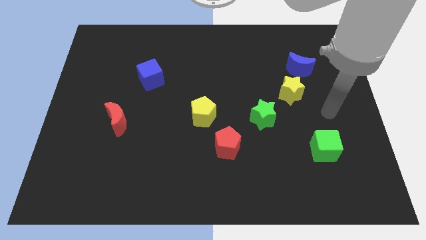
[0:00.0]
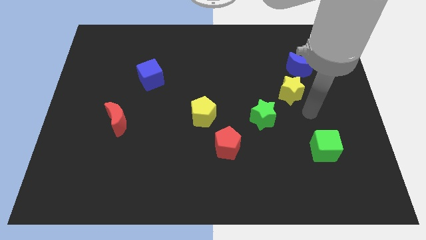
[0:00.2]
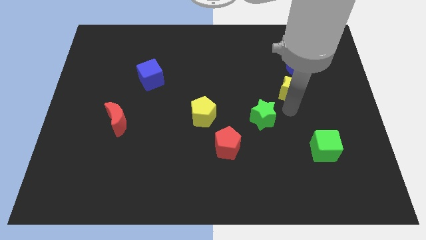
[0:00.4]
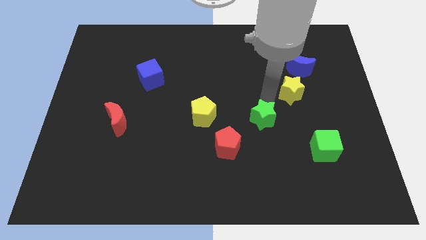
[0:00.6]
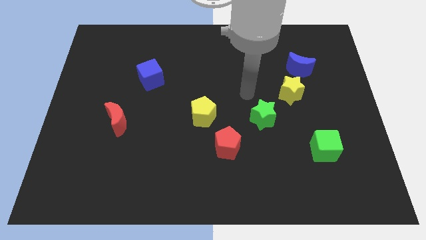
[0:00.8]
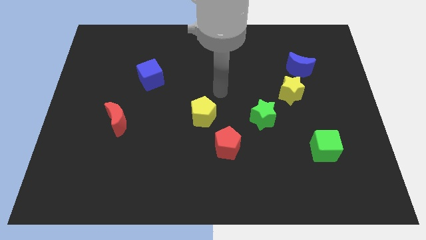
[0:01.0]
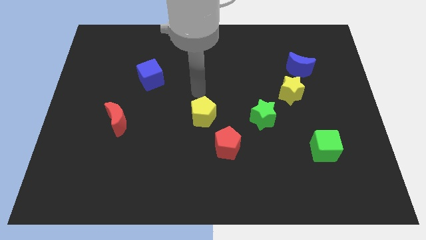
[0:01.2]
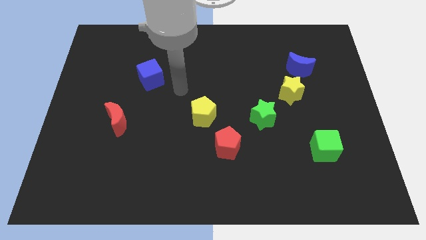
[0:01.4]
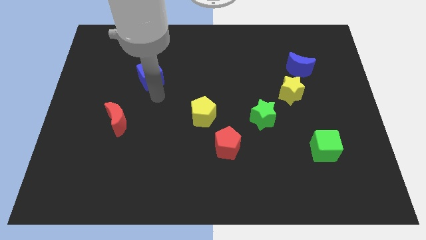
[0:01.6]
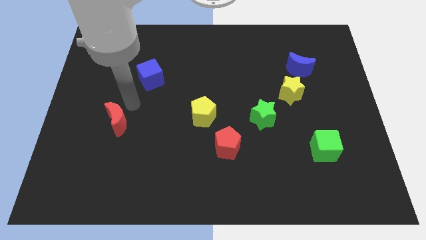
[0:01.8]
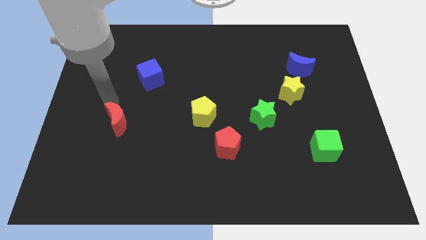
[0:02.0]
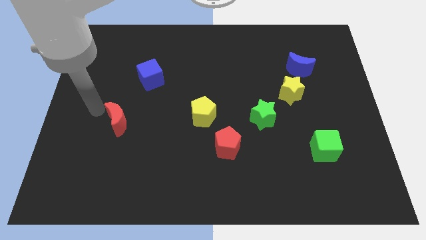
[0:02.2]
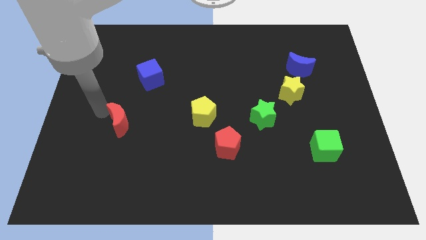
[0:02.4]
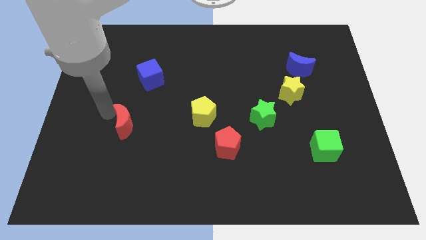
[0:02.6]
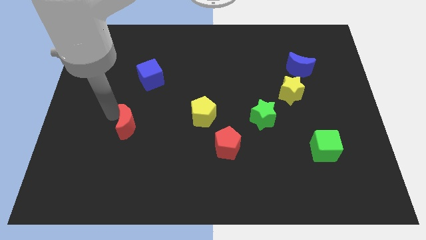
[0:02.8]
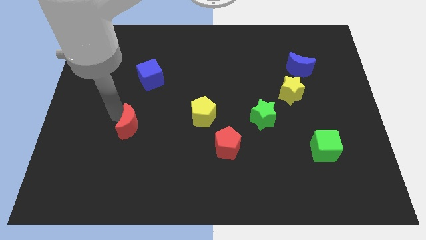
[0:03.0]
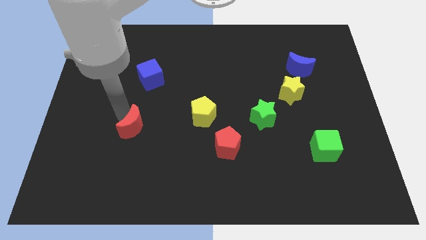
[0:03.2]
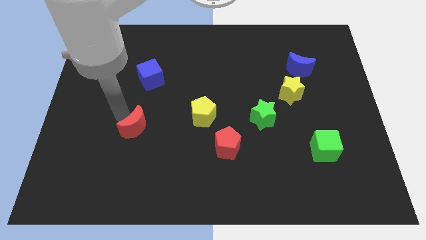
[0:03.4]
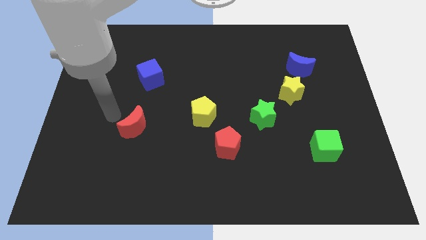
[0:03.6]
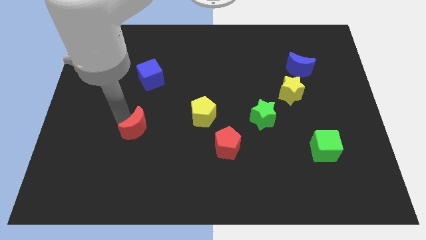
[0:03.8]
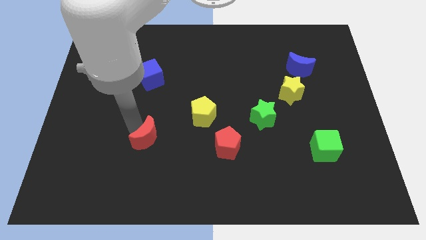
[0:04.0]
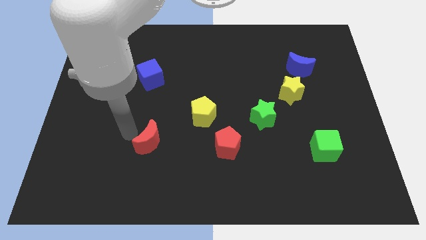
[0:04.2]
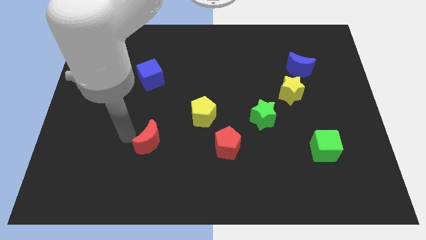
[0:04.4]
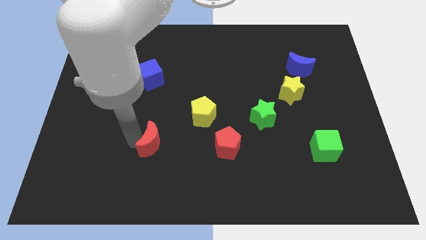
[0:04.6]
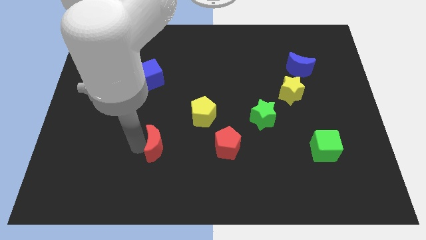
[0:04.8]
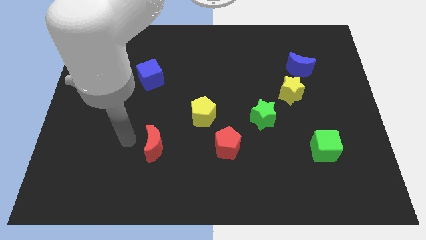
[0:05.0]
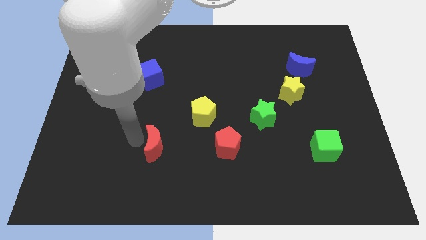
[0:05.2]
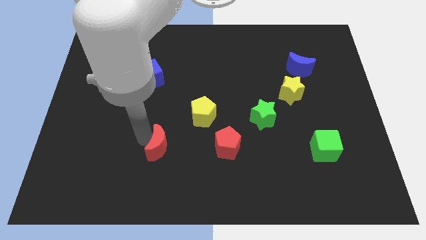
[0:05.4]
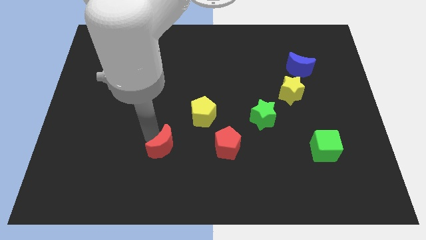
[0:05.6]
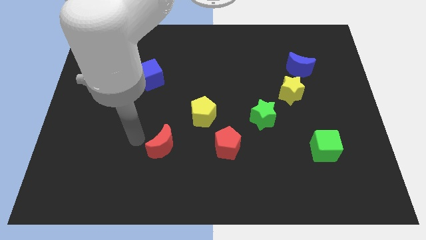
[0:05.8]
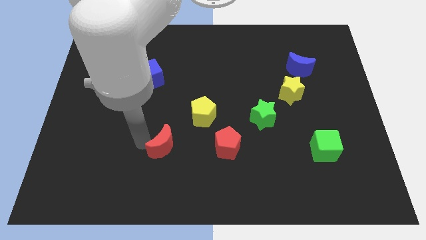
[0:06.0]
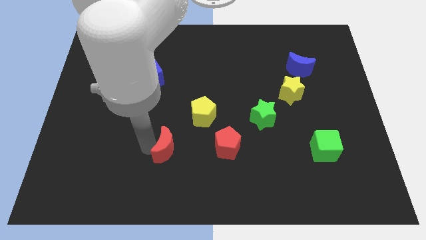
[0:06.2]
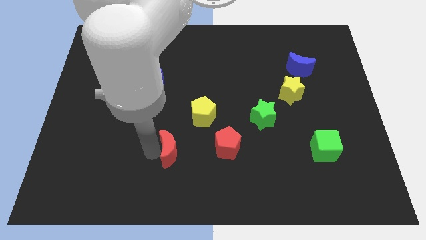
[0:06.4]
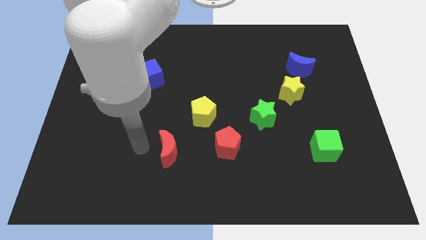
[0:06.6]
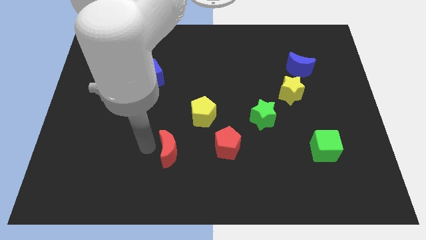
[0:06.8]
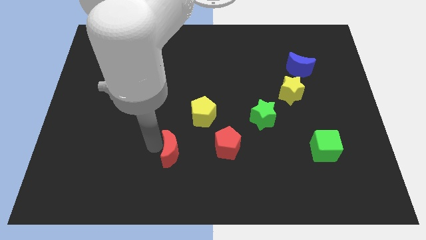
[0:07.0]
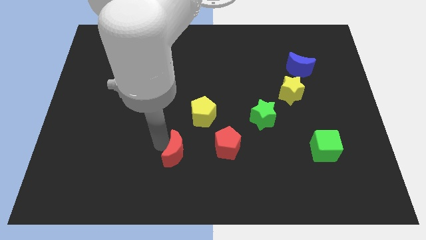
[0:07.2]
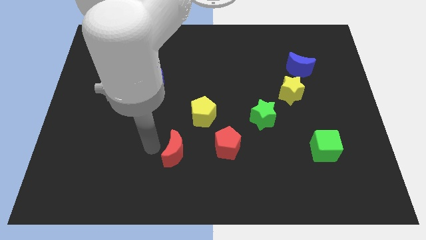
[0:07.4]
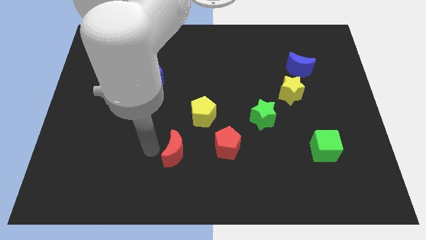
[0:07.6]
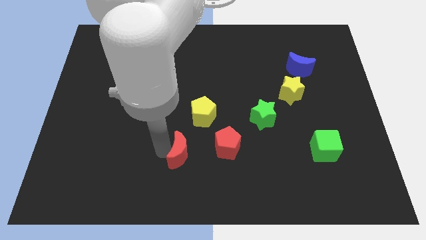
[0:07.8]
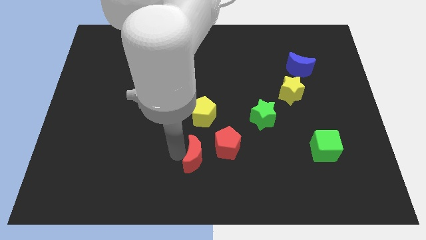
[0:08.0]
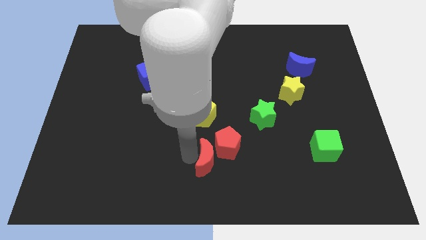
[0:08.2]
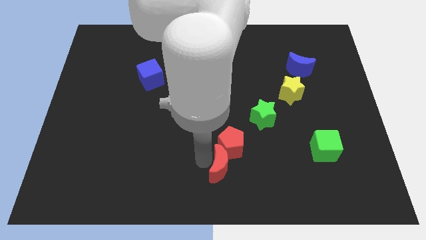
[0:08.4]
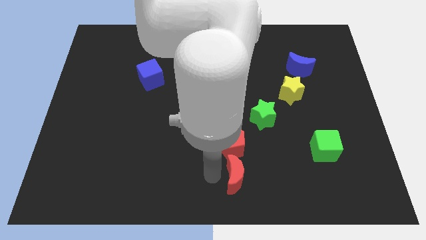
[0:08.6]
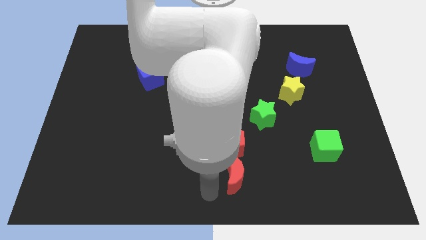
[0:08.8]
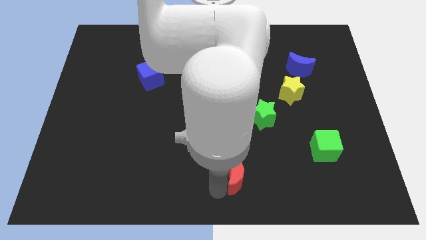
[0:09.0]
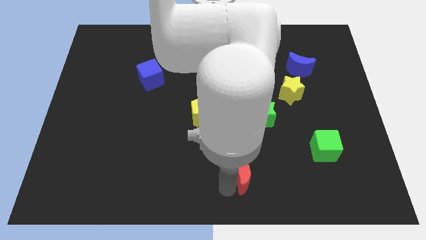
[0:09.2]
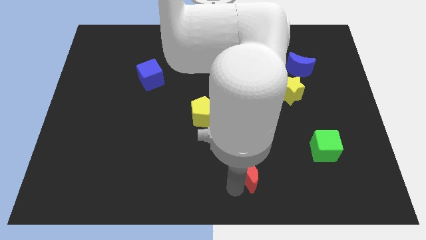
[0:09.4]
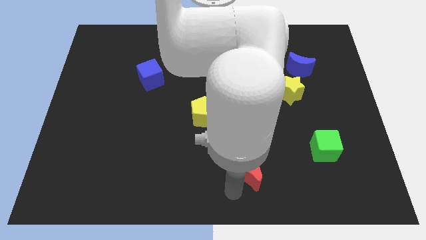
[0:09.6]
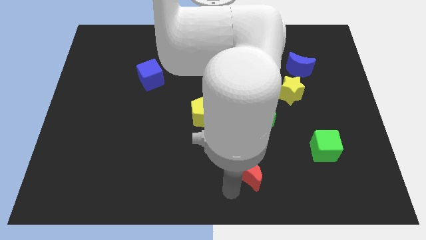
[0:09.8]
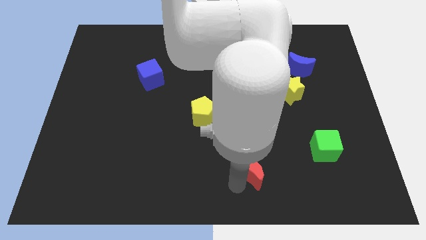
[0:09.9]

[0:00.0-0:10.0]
move the red moon to the bottom side of the green star

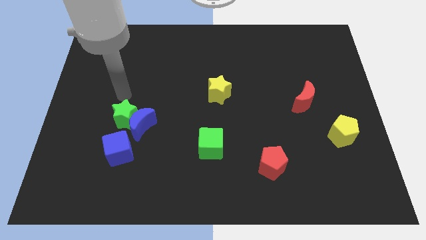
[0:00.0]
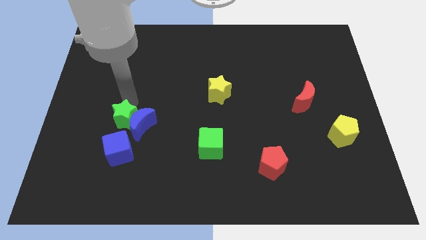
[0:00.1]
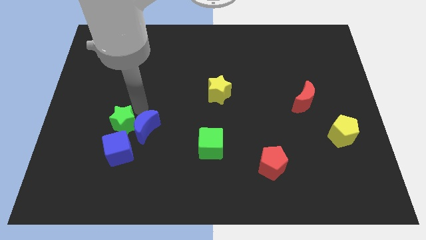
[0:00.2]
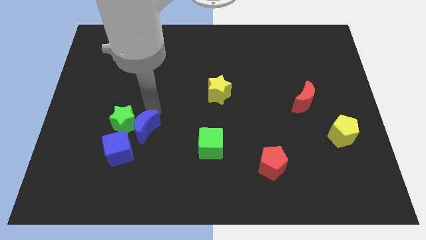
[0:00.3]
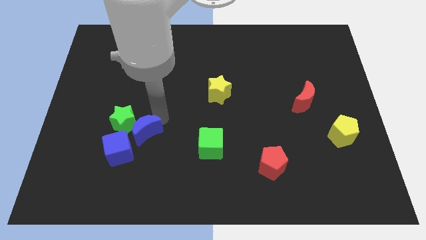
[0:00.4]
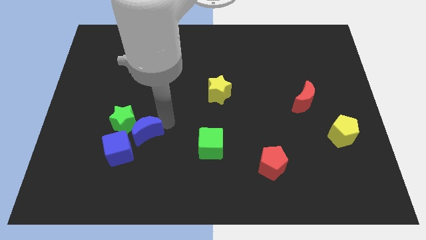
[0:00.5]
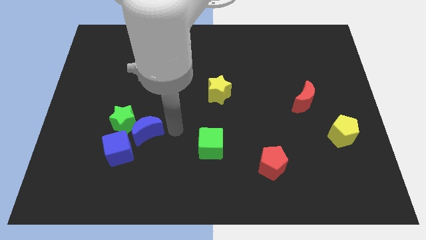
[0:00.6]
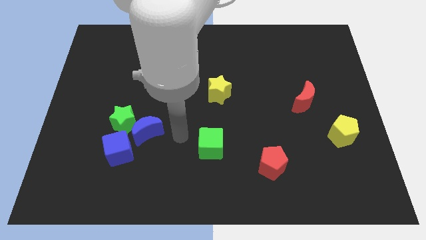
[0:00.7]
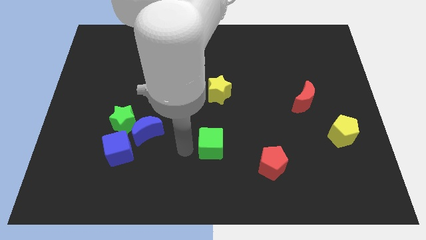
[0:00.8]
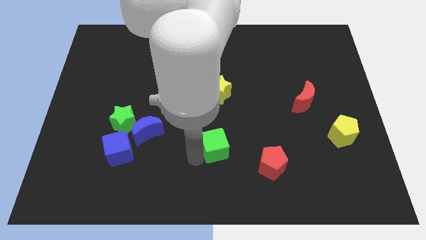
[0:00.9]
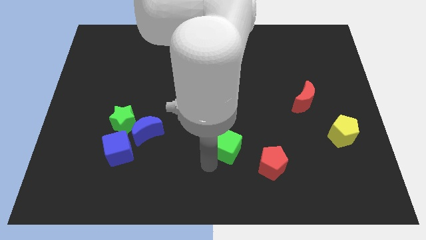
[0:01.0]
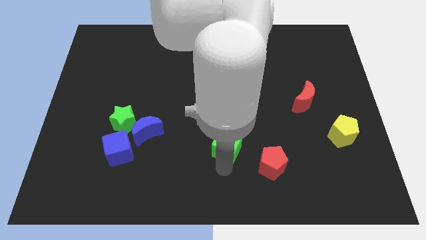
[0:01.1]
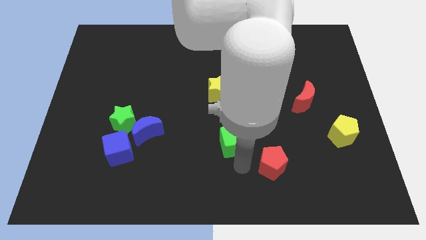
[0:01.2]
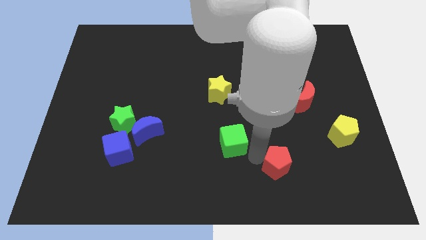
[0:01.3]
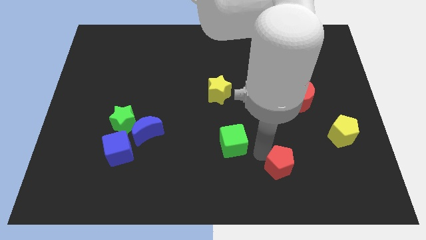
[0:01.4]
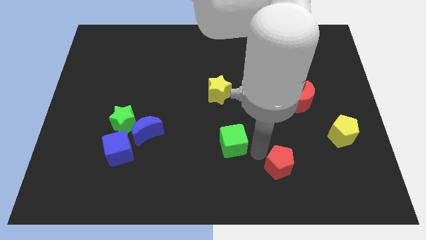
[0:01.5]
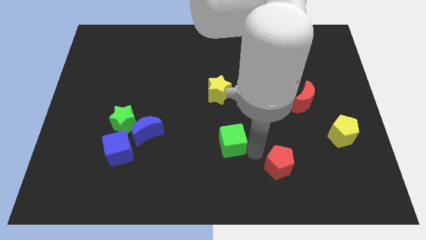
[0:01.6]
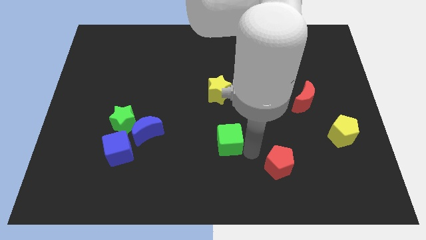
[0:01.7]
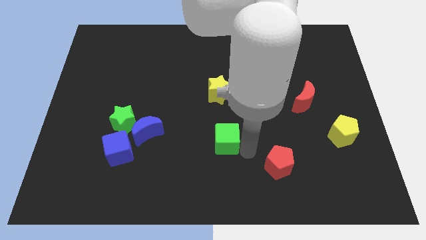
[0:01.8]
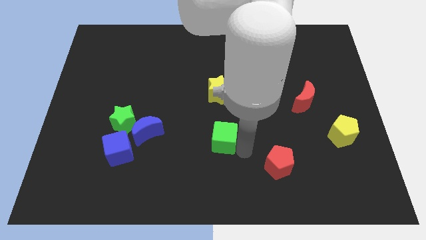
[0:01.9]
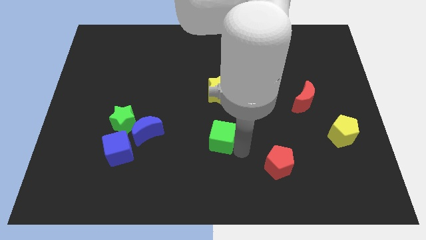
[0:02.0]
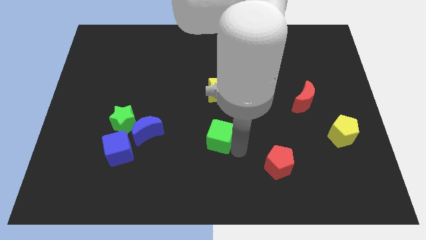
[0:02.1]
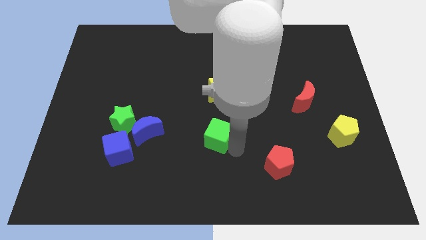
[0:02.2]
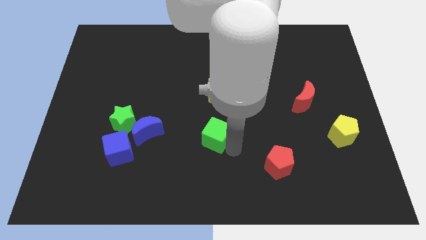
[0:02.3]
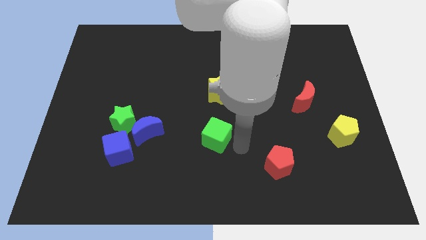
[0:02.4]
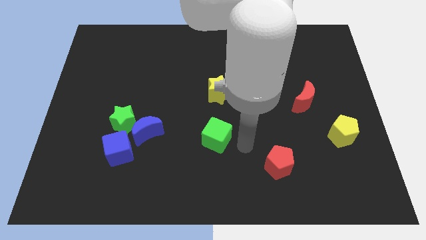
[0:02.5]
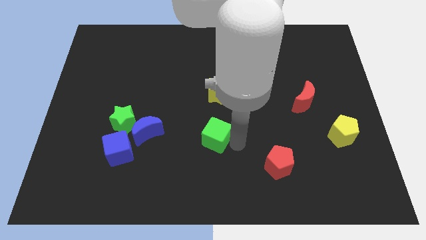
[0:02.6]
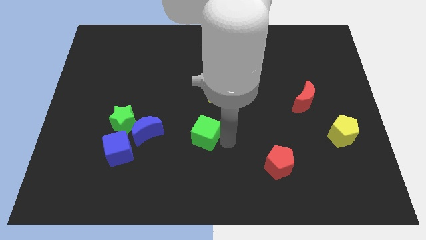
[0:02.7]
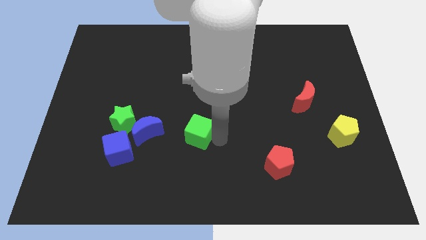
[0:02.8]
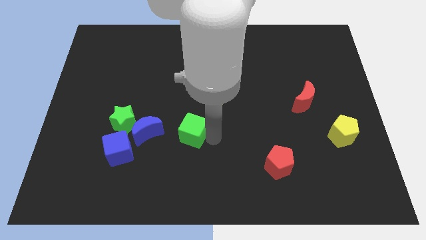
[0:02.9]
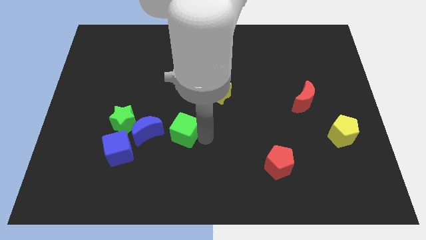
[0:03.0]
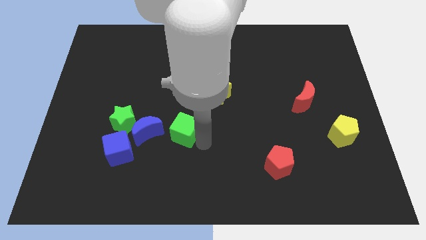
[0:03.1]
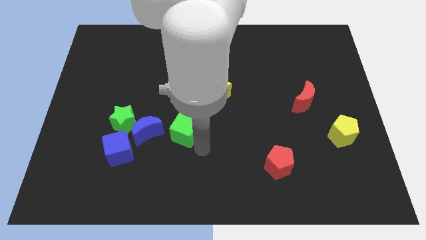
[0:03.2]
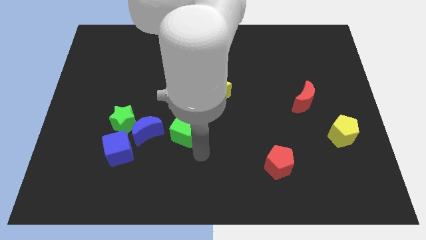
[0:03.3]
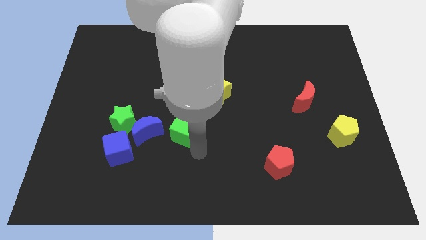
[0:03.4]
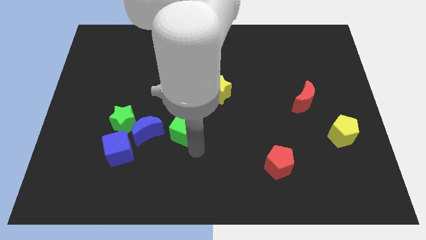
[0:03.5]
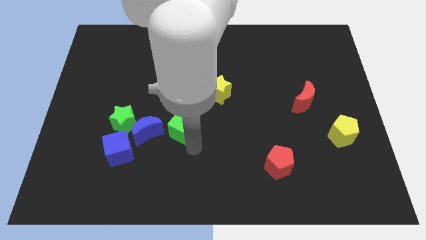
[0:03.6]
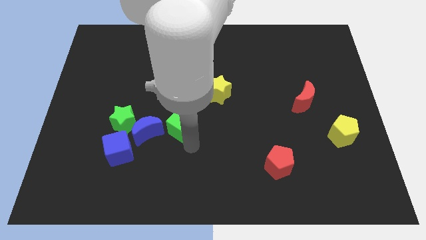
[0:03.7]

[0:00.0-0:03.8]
put the green cube to the top right side of the blue moon
